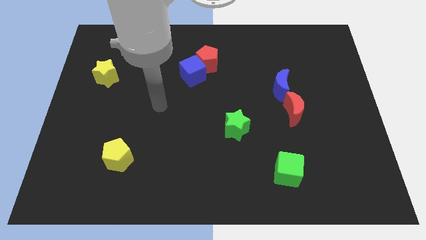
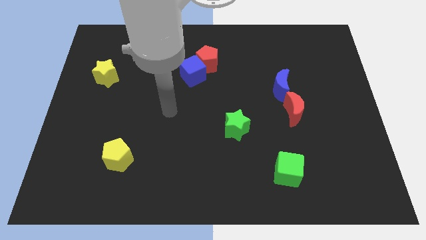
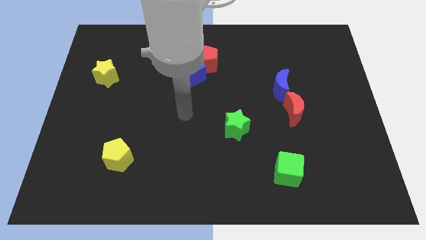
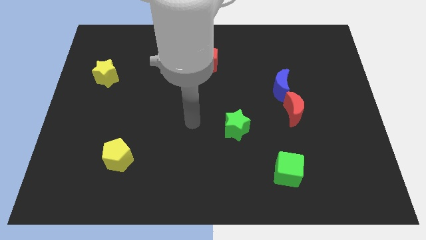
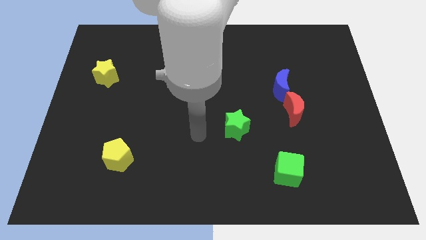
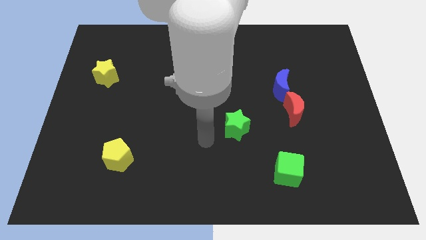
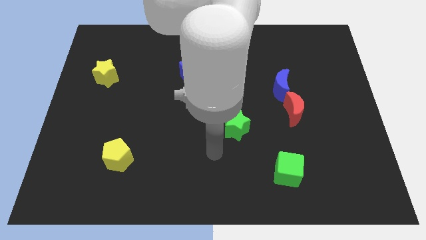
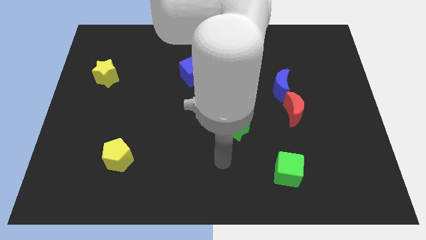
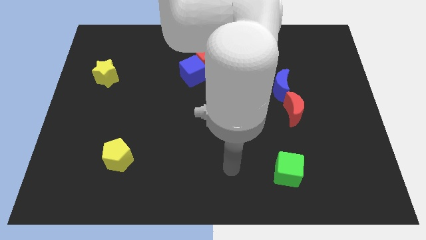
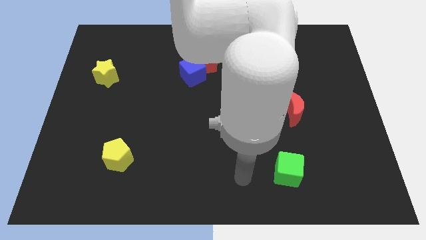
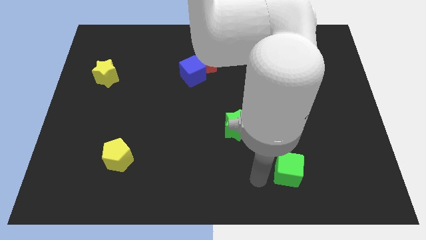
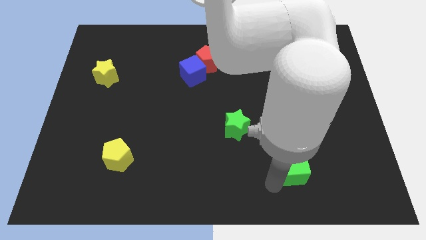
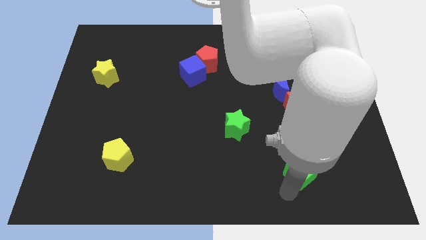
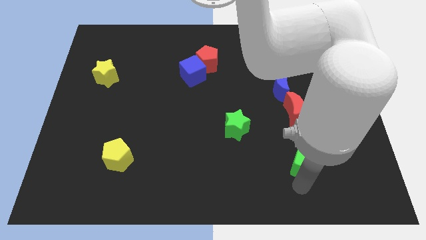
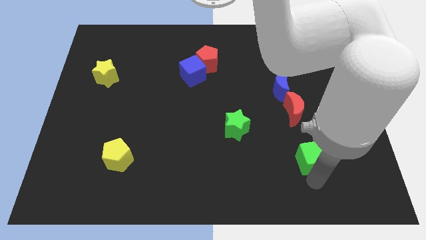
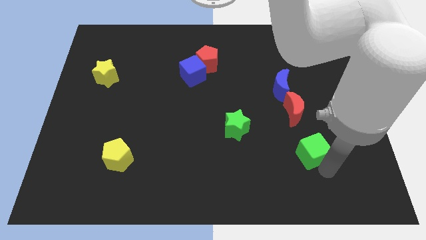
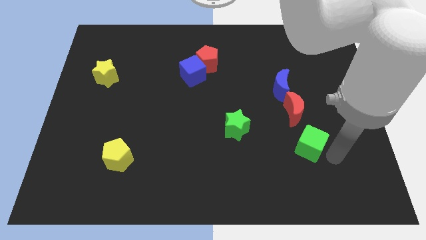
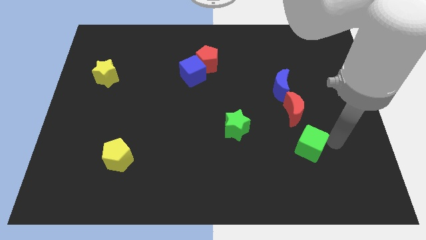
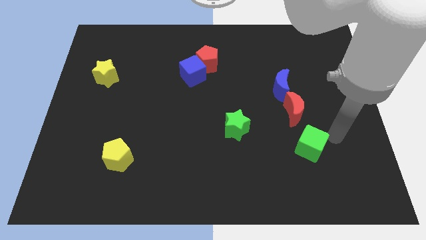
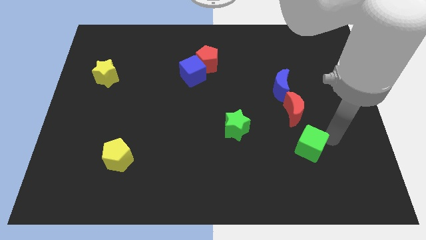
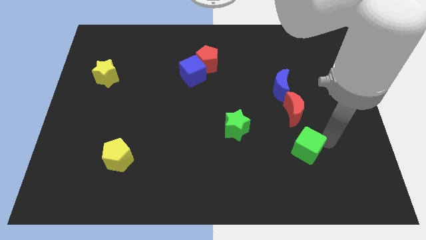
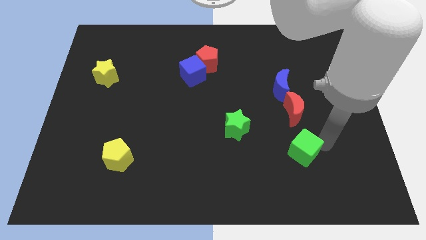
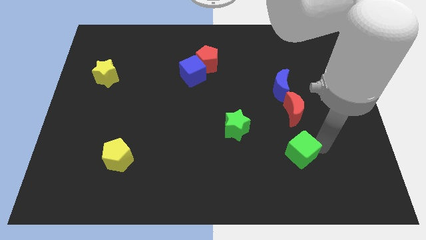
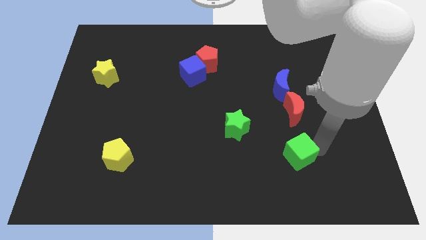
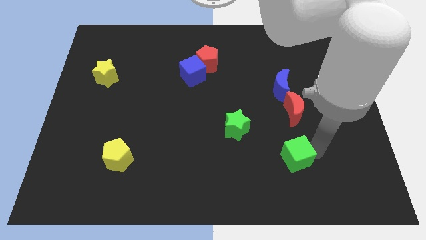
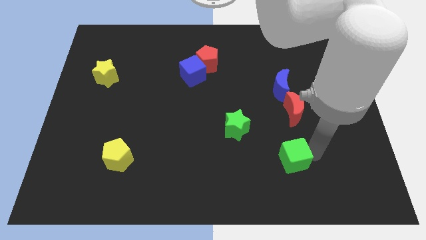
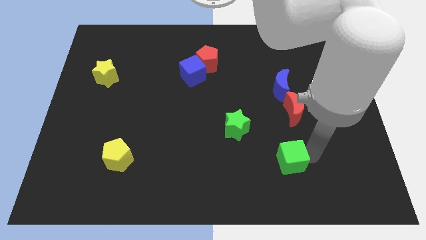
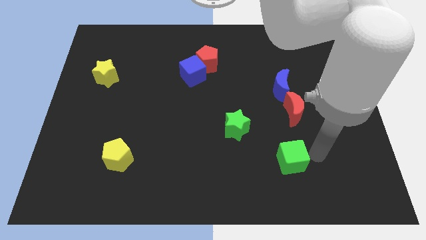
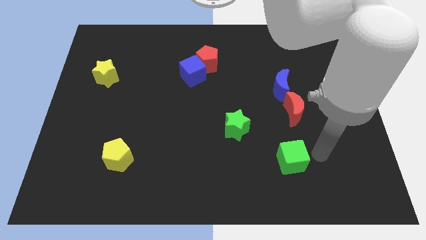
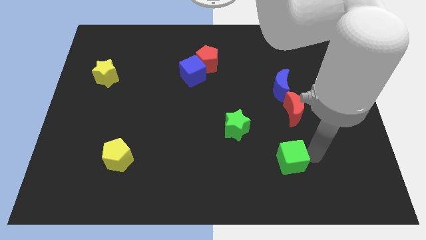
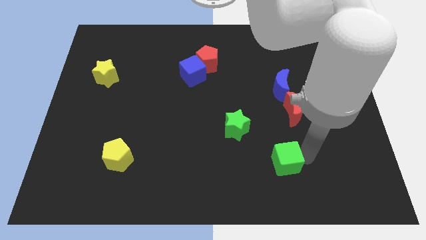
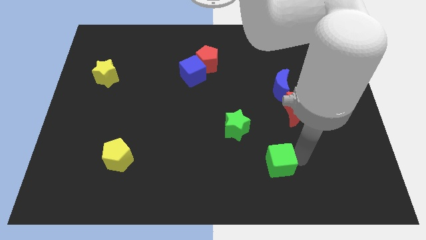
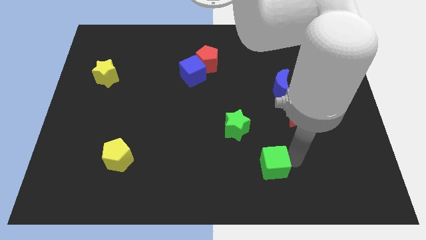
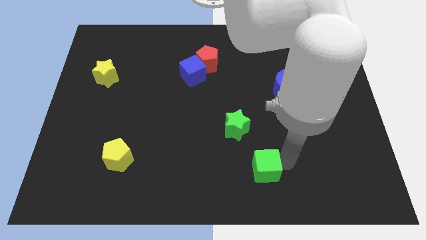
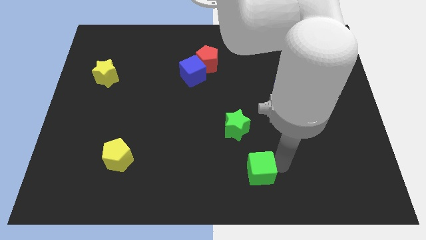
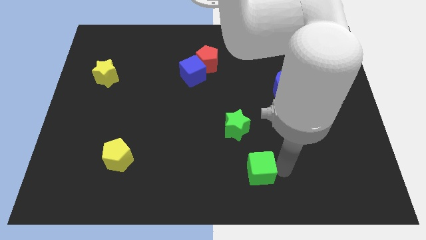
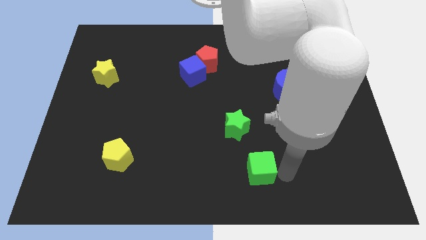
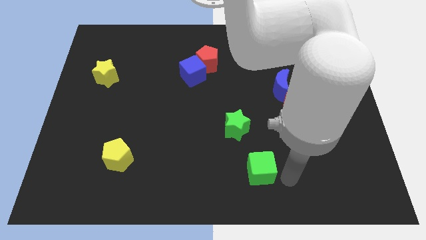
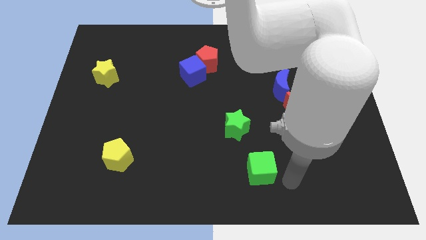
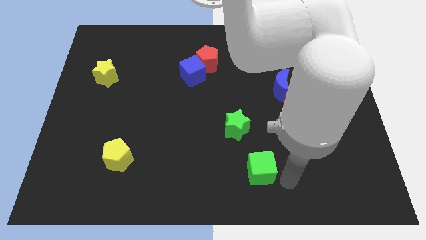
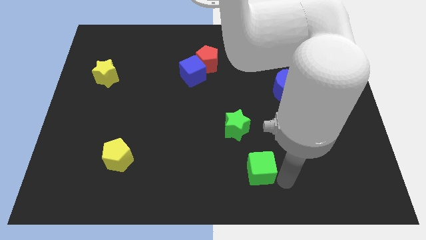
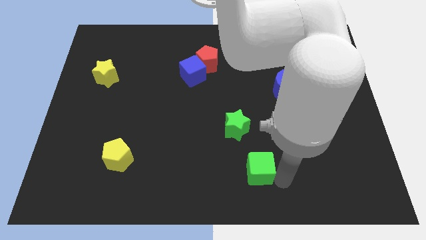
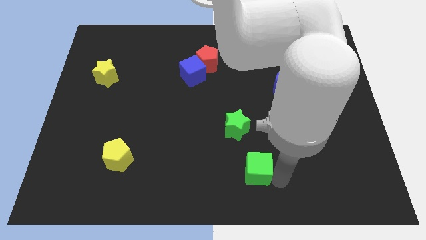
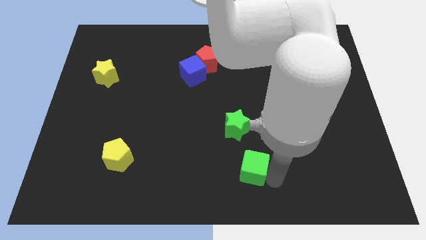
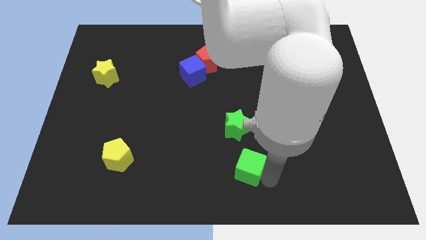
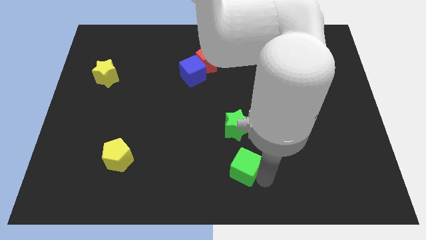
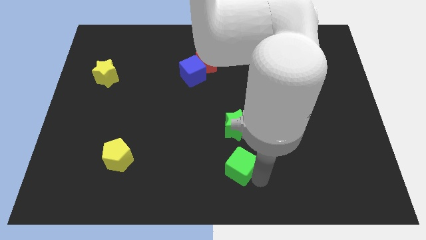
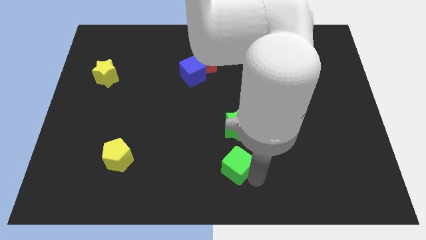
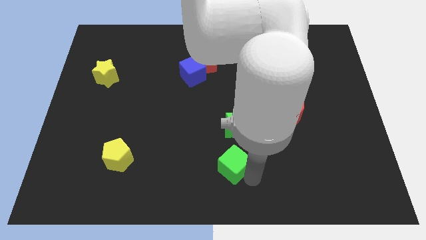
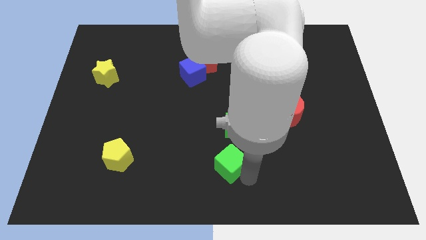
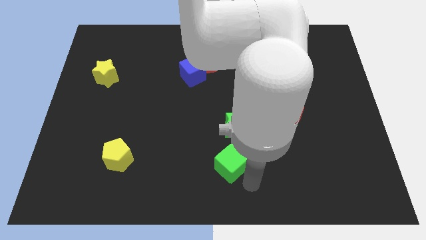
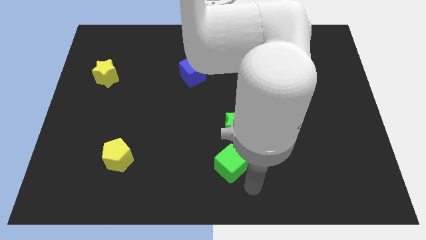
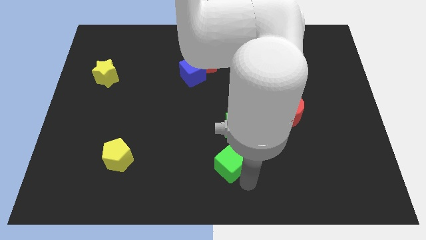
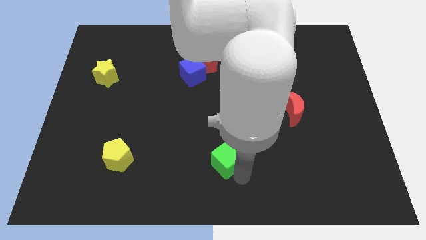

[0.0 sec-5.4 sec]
slide the green cube to the bottom left side of the green star

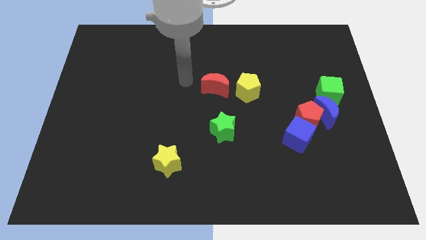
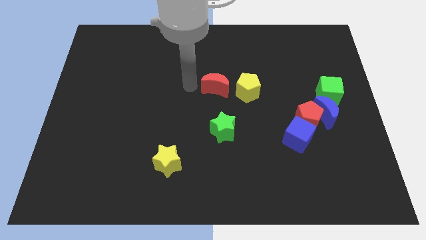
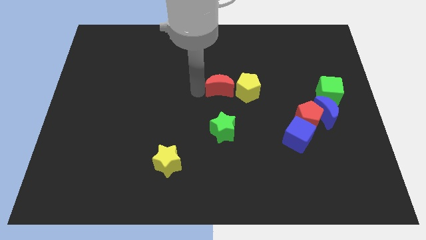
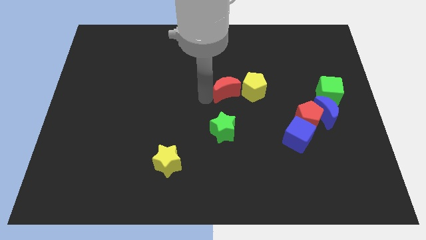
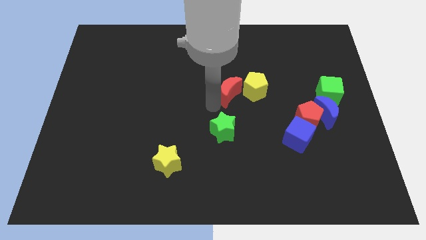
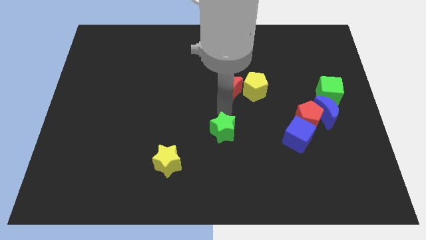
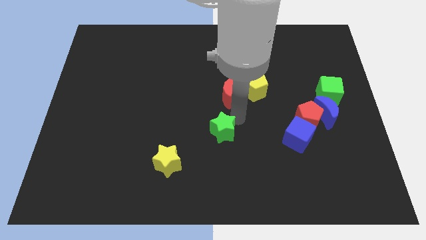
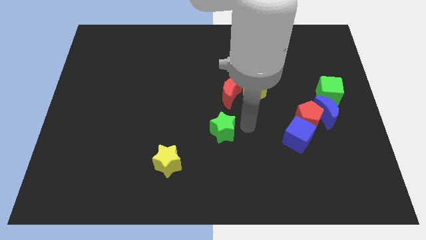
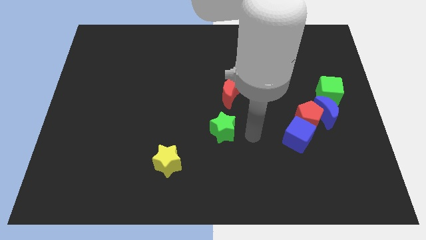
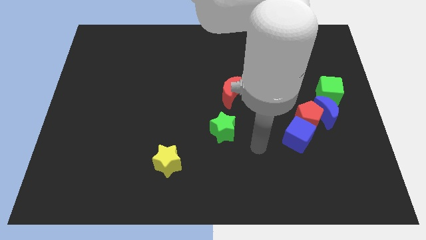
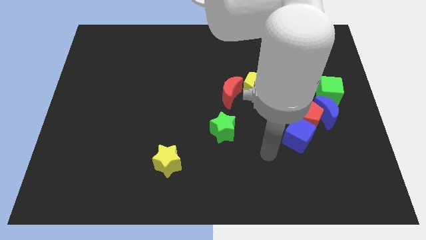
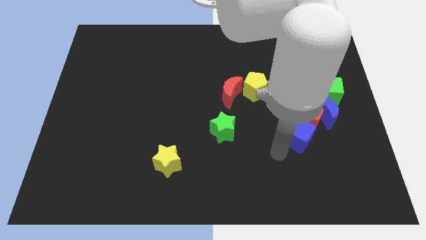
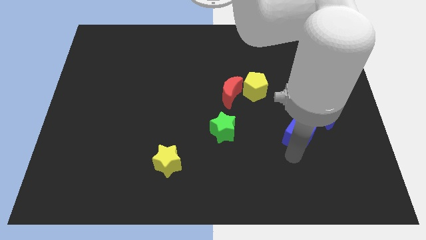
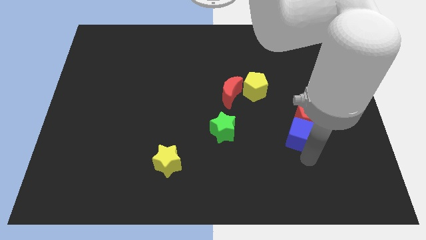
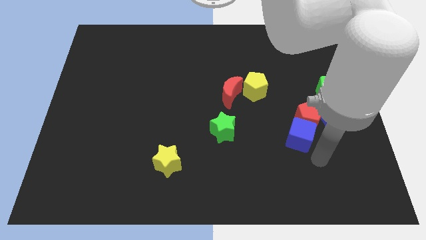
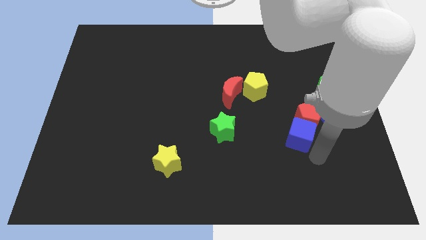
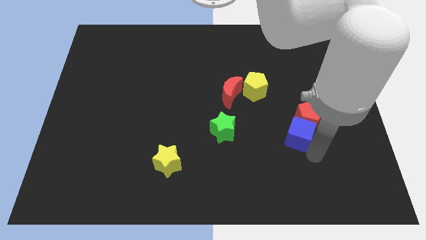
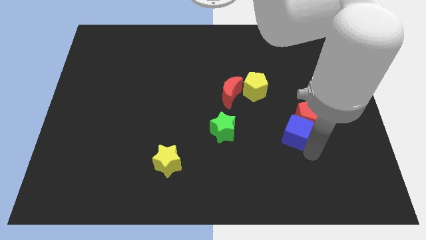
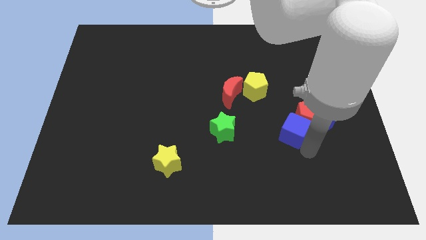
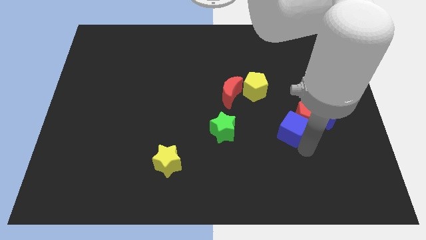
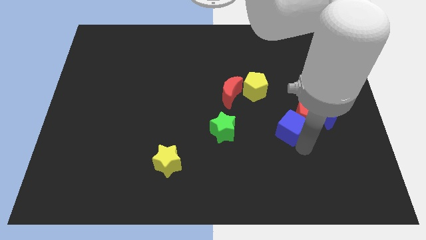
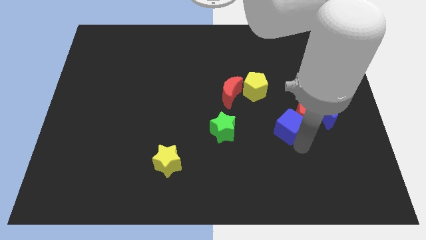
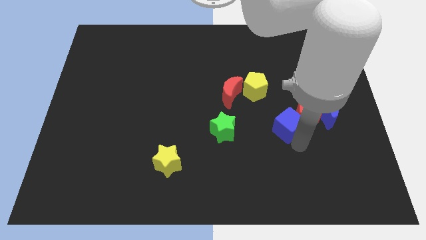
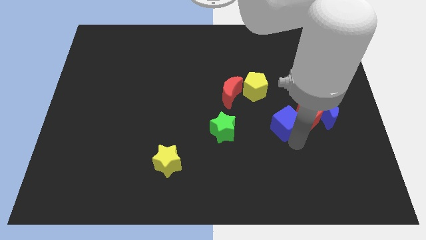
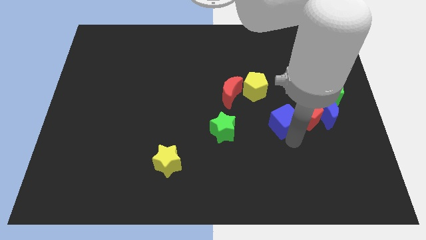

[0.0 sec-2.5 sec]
slide the blue cube diagonally down and to the right of the yellow pentagon
